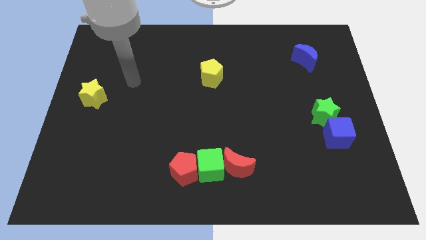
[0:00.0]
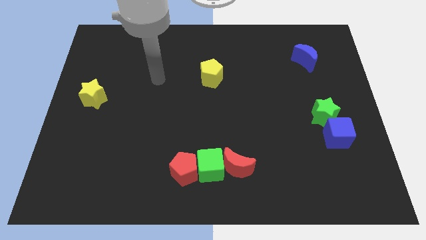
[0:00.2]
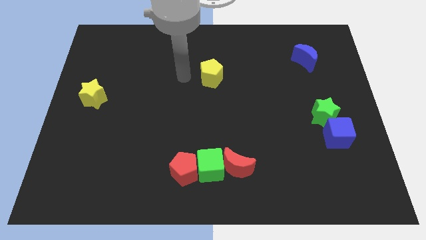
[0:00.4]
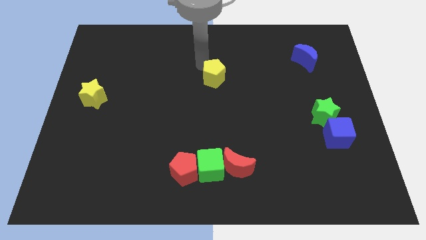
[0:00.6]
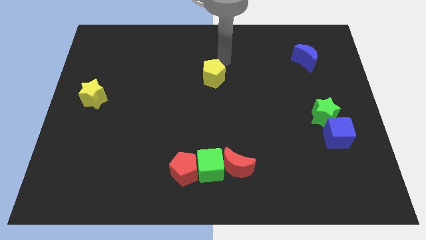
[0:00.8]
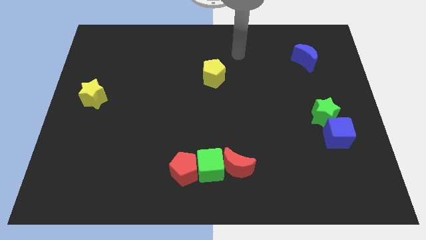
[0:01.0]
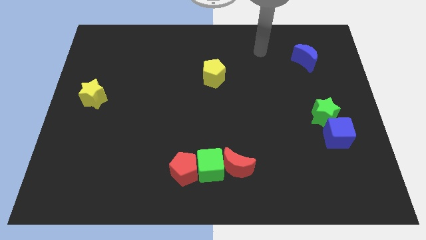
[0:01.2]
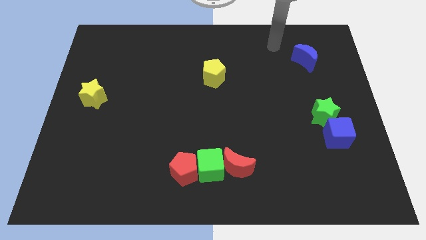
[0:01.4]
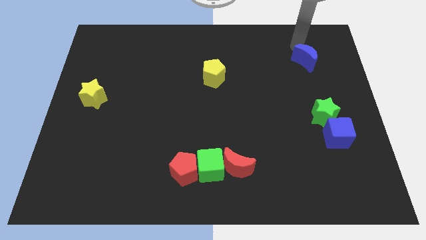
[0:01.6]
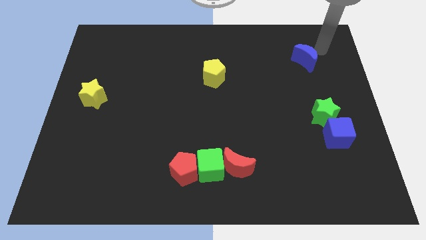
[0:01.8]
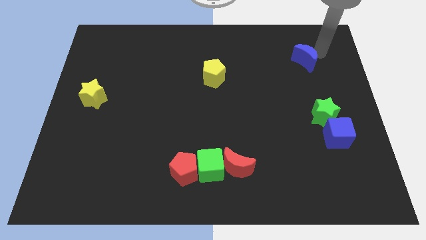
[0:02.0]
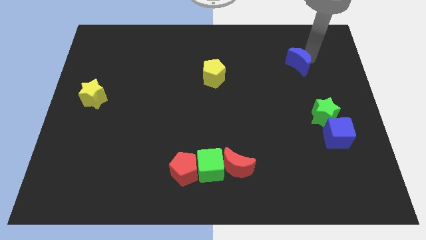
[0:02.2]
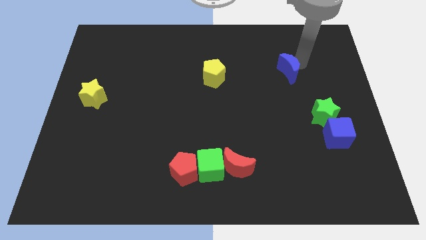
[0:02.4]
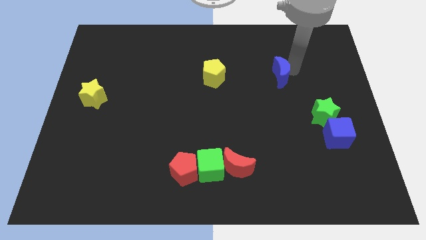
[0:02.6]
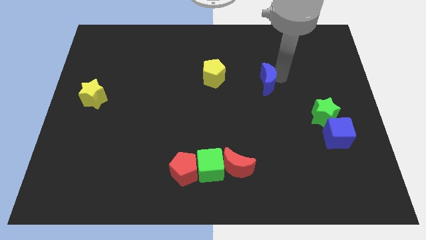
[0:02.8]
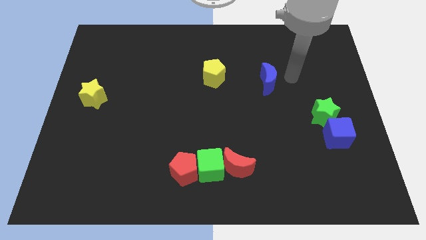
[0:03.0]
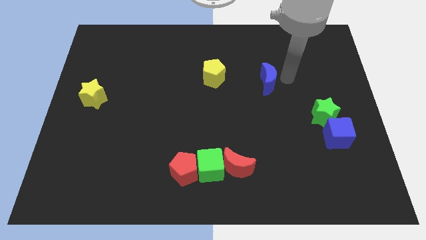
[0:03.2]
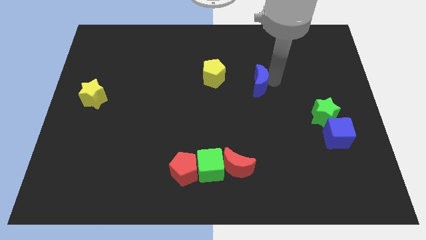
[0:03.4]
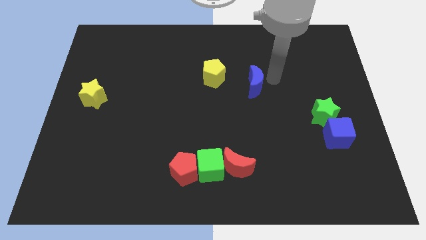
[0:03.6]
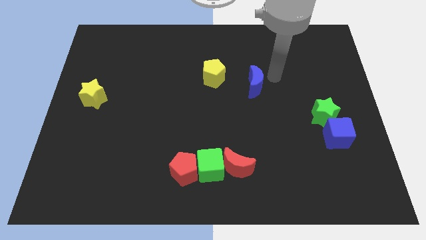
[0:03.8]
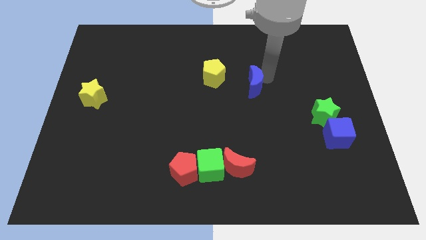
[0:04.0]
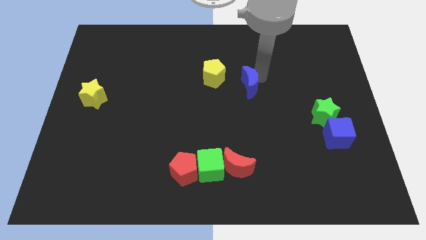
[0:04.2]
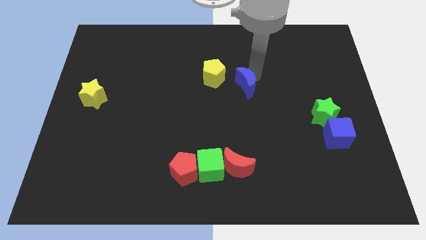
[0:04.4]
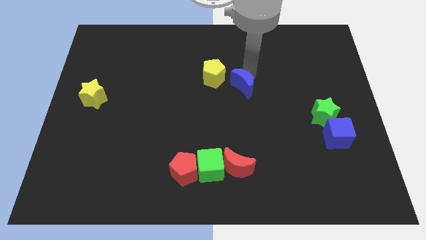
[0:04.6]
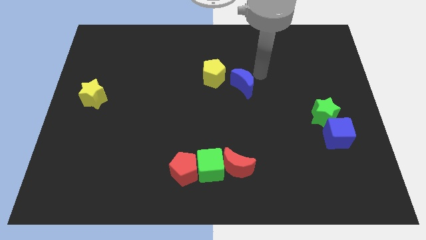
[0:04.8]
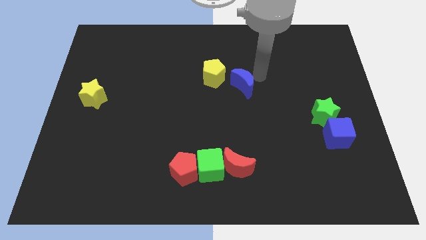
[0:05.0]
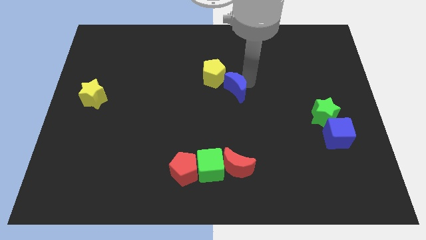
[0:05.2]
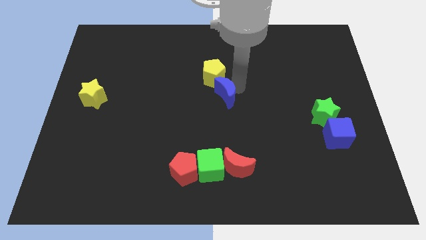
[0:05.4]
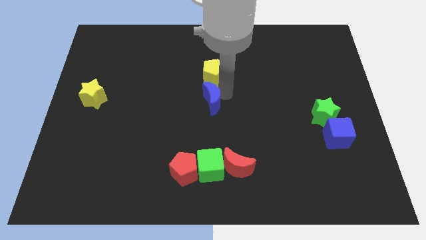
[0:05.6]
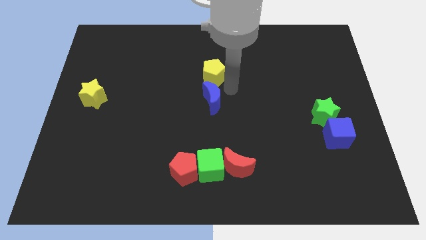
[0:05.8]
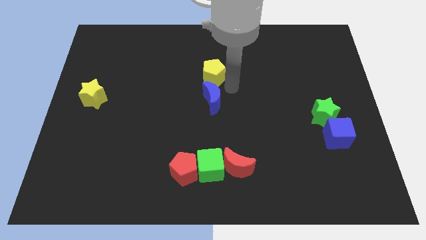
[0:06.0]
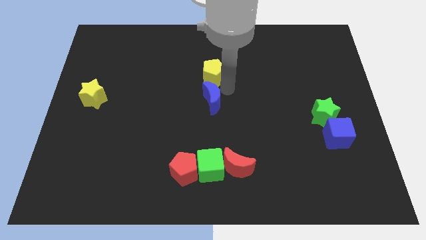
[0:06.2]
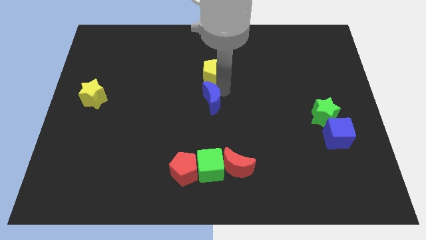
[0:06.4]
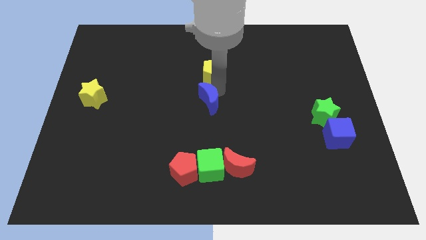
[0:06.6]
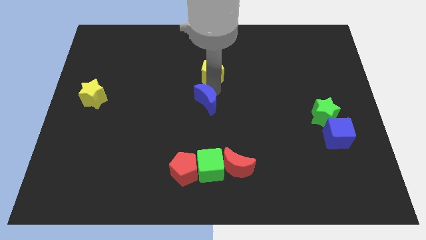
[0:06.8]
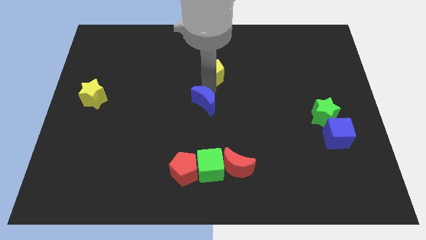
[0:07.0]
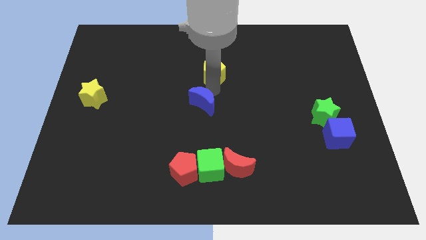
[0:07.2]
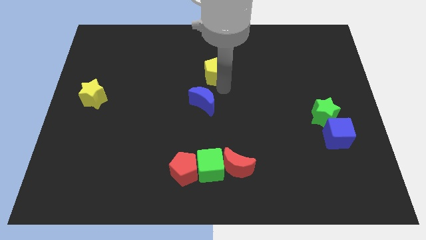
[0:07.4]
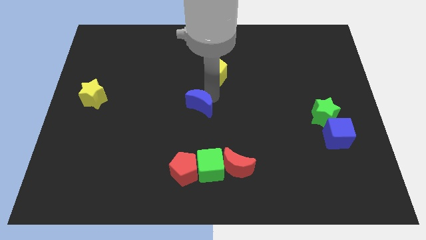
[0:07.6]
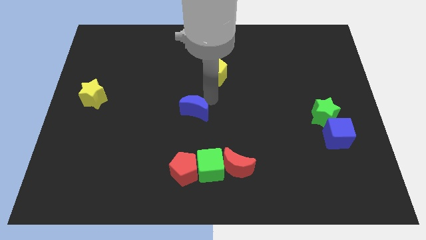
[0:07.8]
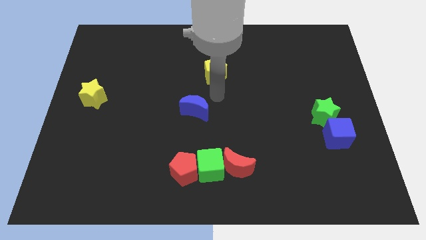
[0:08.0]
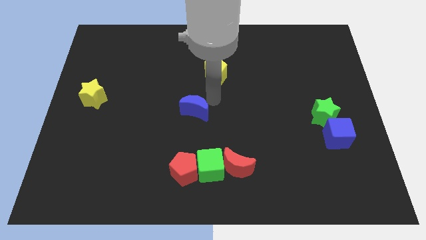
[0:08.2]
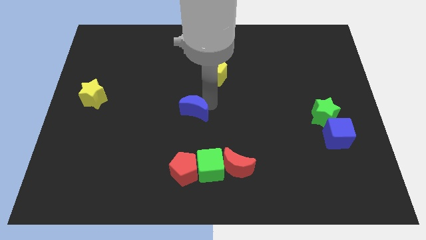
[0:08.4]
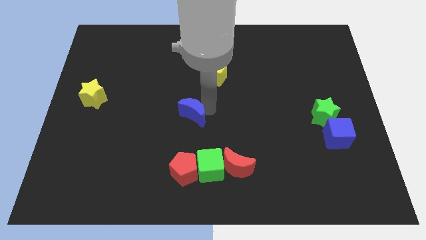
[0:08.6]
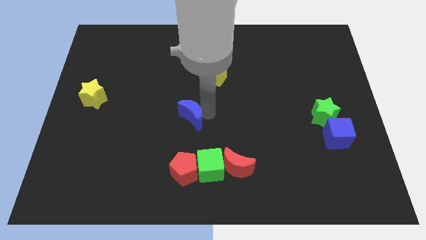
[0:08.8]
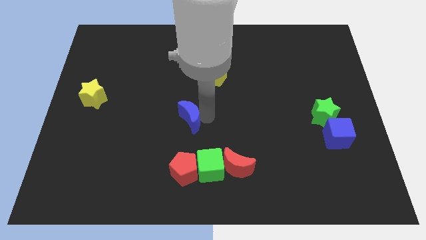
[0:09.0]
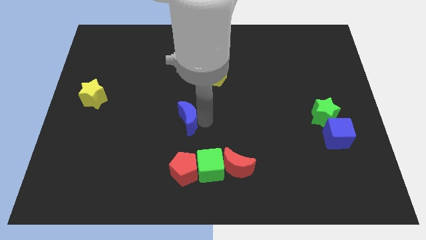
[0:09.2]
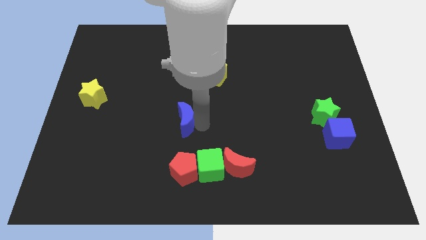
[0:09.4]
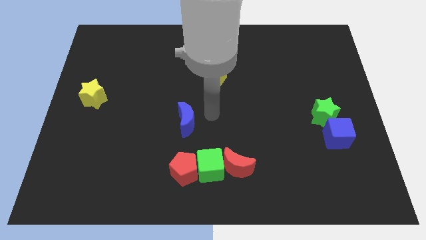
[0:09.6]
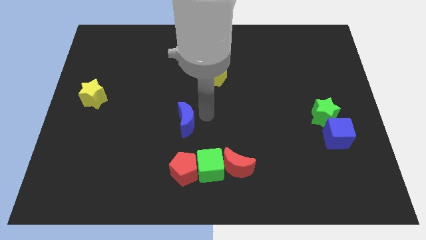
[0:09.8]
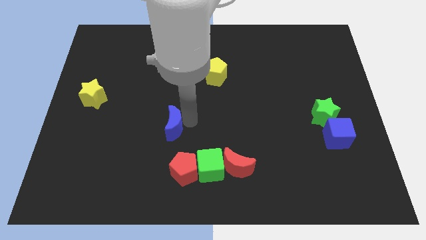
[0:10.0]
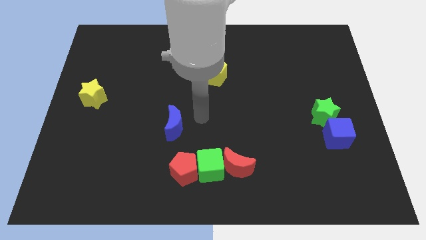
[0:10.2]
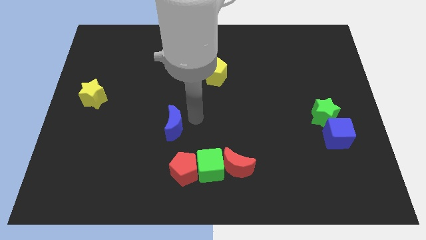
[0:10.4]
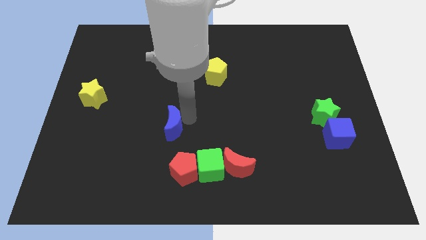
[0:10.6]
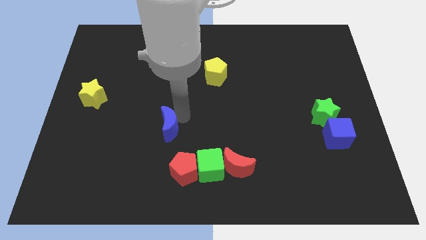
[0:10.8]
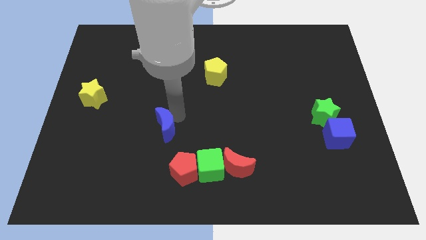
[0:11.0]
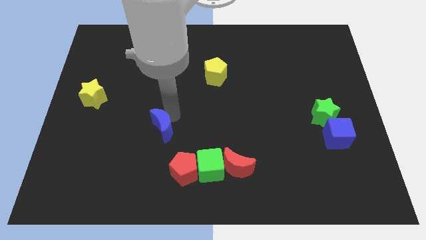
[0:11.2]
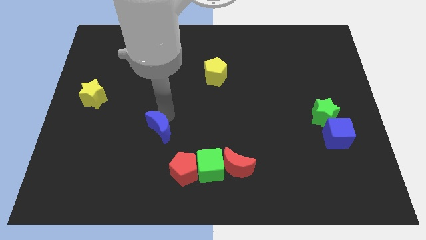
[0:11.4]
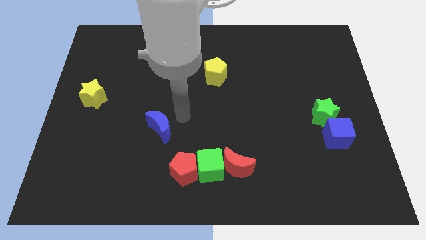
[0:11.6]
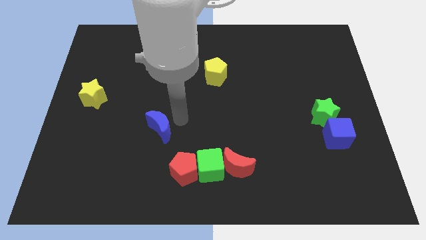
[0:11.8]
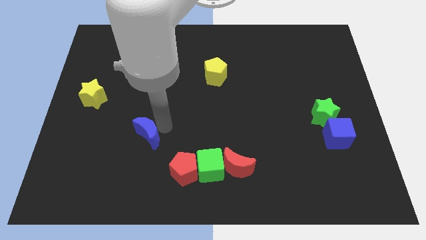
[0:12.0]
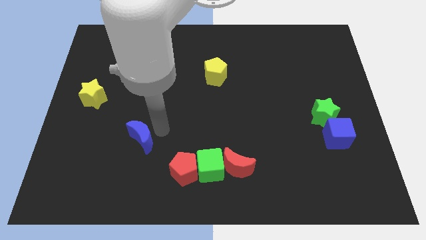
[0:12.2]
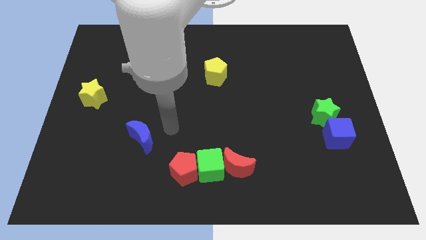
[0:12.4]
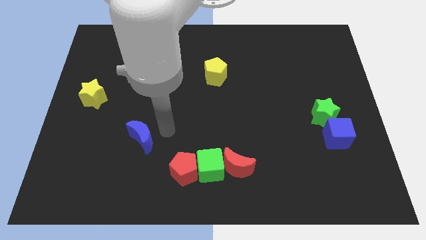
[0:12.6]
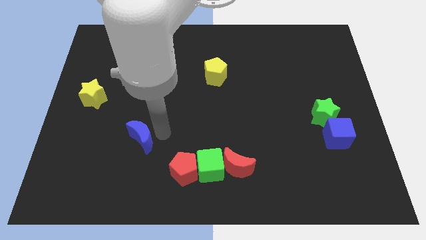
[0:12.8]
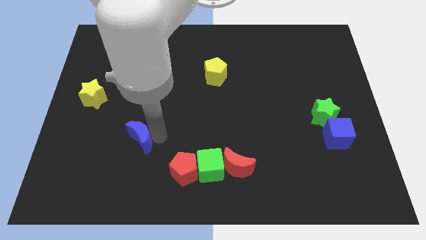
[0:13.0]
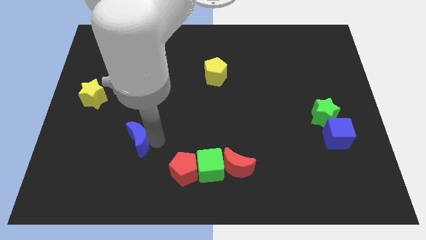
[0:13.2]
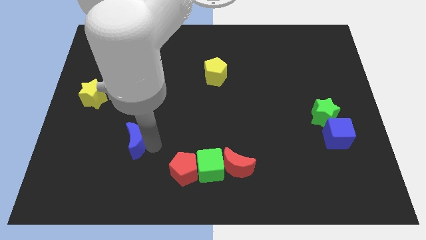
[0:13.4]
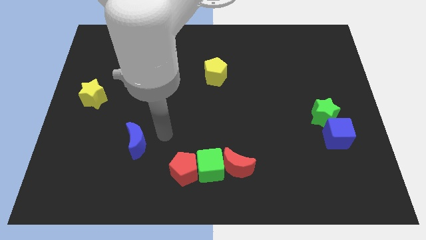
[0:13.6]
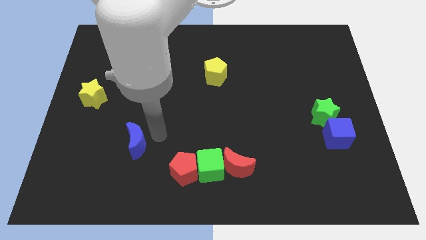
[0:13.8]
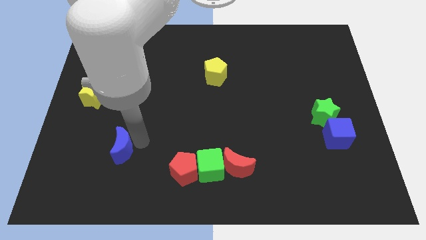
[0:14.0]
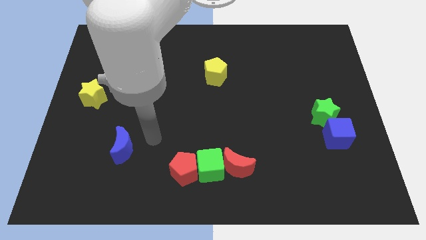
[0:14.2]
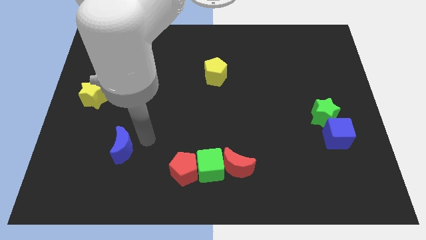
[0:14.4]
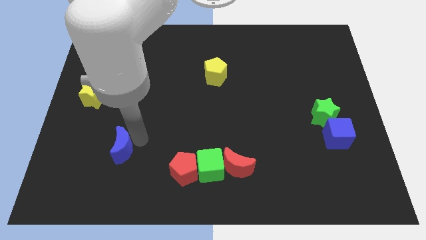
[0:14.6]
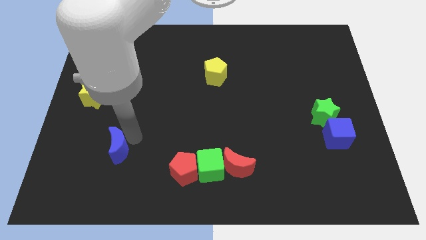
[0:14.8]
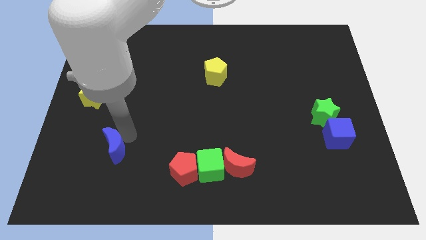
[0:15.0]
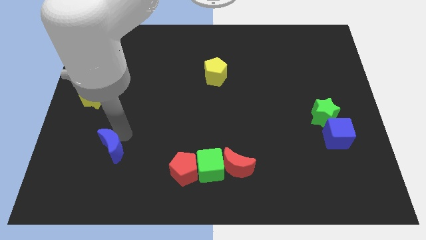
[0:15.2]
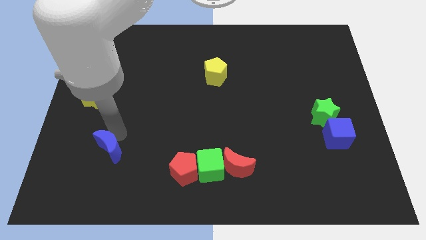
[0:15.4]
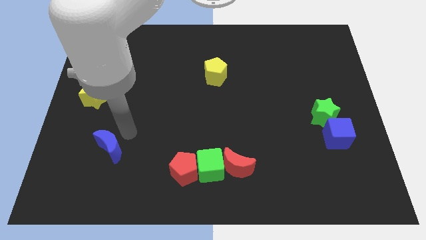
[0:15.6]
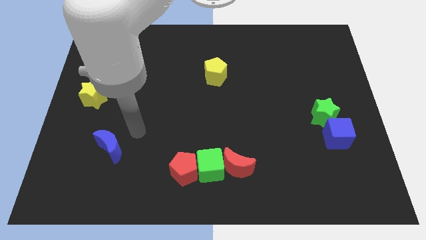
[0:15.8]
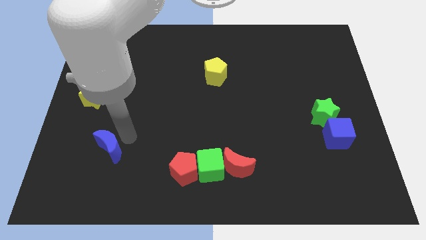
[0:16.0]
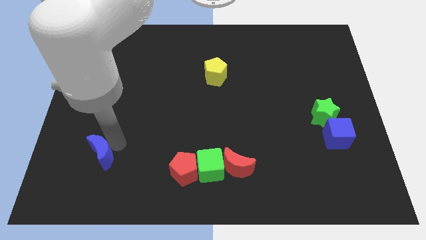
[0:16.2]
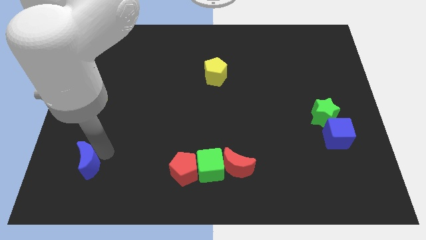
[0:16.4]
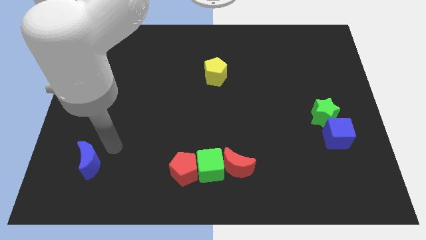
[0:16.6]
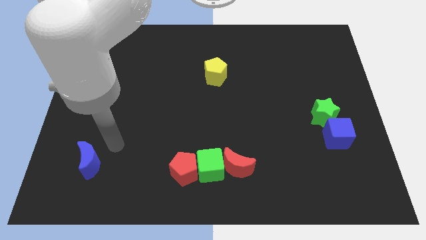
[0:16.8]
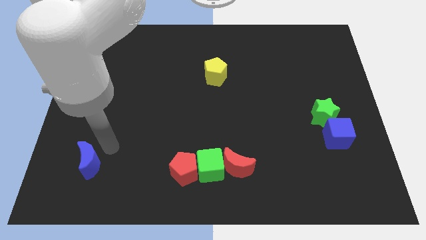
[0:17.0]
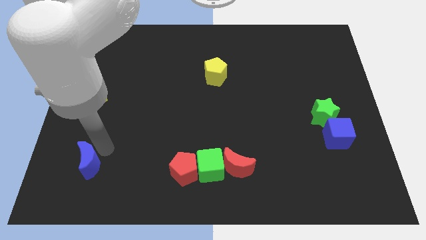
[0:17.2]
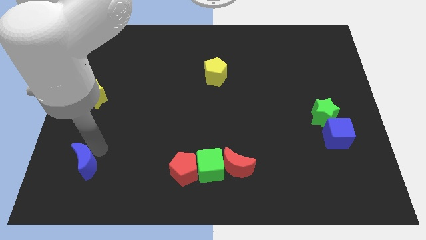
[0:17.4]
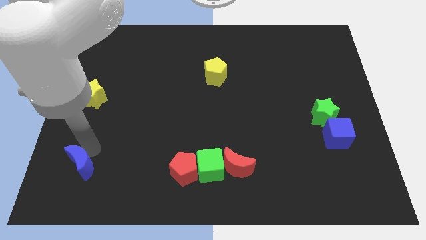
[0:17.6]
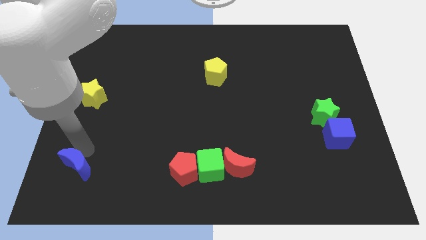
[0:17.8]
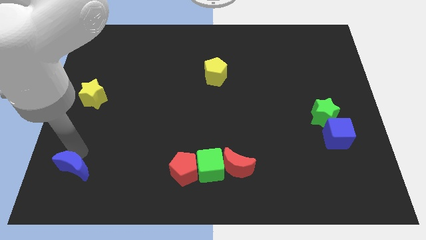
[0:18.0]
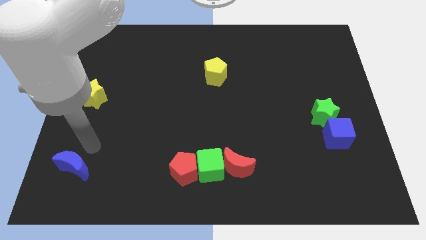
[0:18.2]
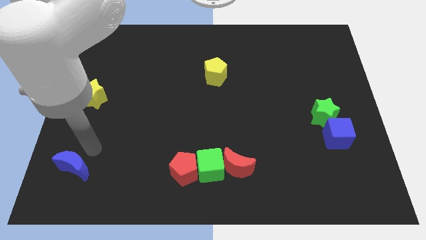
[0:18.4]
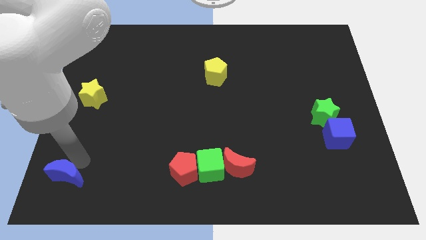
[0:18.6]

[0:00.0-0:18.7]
slide the blue moon to the bottom left
